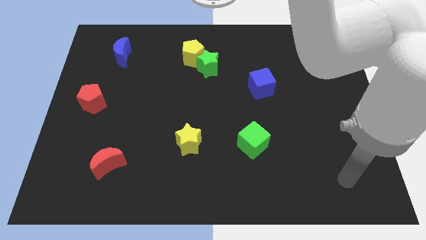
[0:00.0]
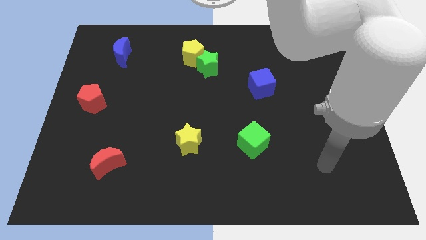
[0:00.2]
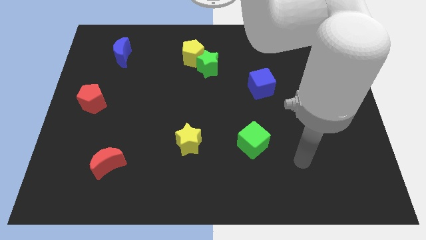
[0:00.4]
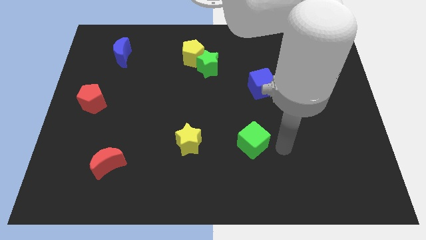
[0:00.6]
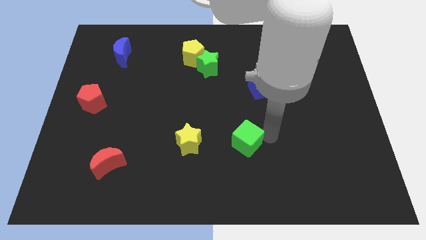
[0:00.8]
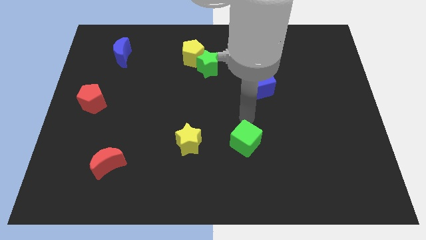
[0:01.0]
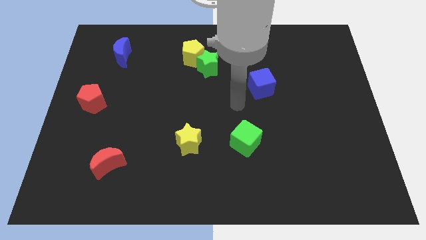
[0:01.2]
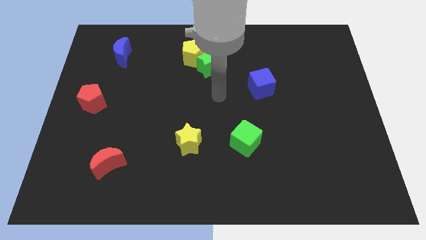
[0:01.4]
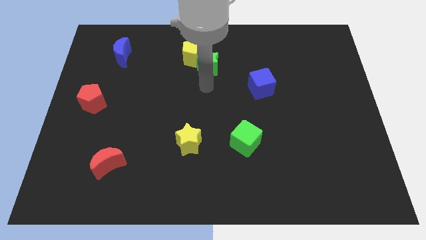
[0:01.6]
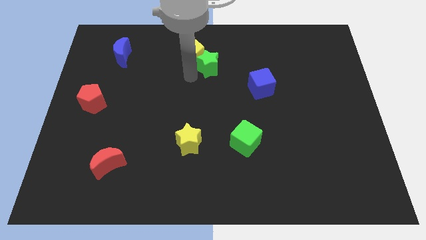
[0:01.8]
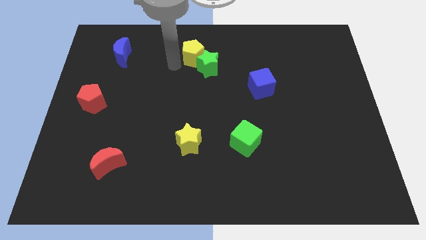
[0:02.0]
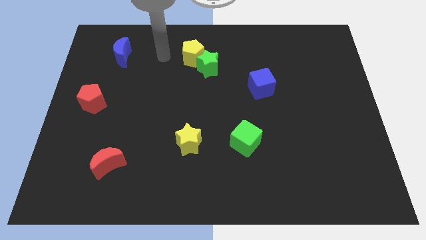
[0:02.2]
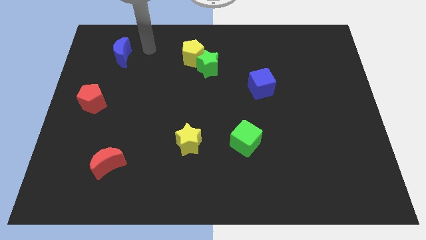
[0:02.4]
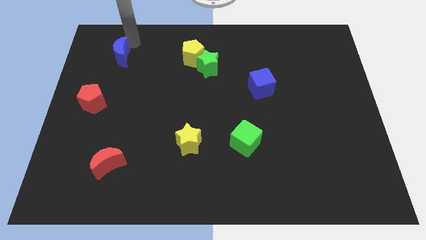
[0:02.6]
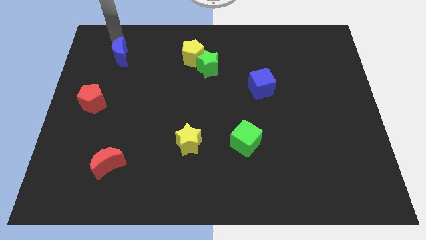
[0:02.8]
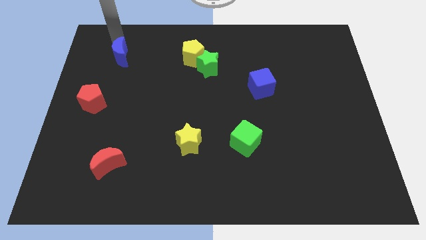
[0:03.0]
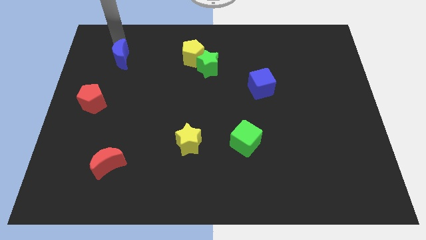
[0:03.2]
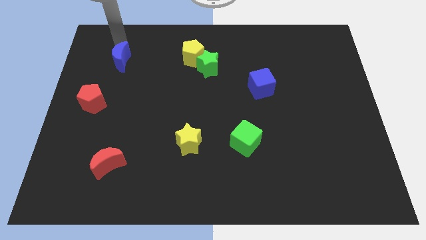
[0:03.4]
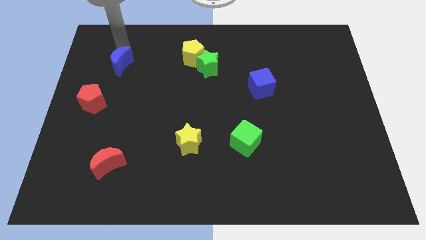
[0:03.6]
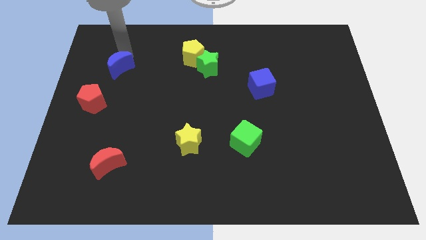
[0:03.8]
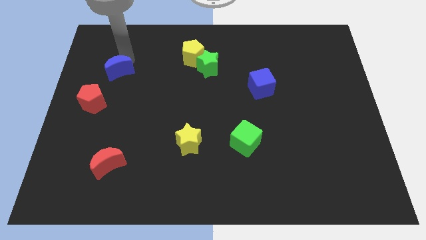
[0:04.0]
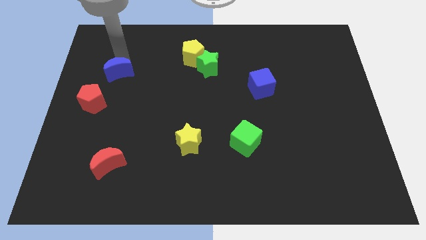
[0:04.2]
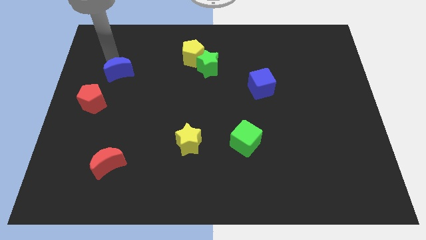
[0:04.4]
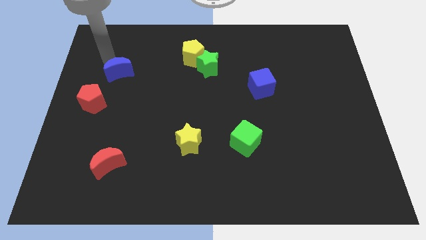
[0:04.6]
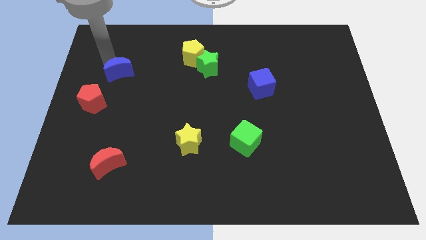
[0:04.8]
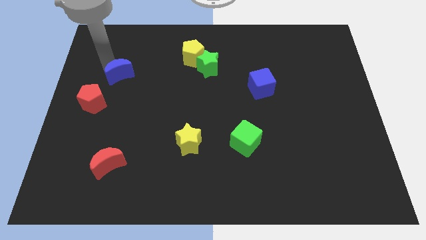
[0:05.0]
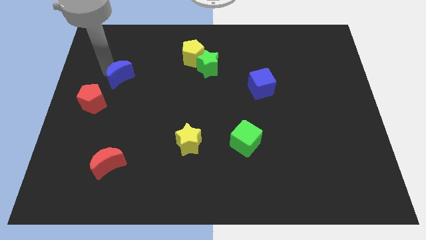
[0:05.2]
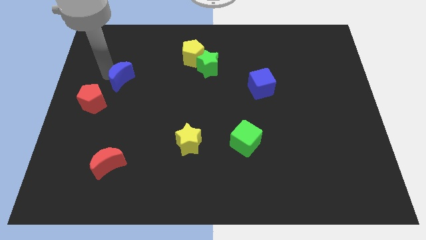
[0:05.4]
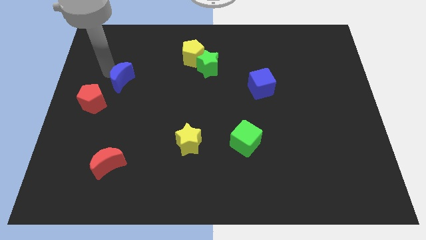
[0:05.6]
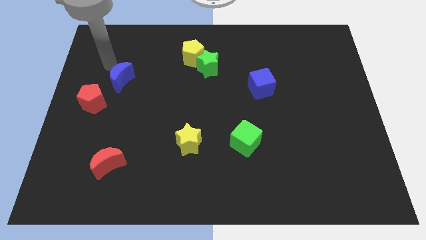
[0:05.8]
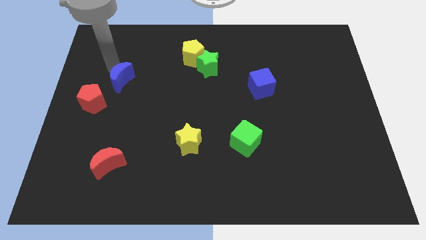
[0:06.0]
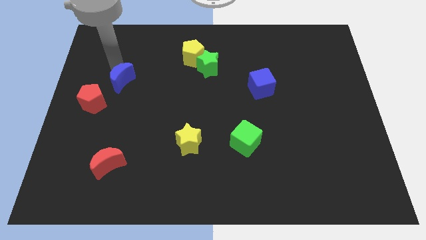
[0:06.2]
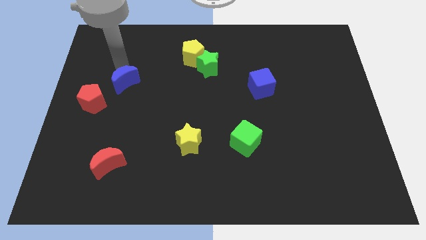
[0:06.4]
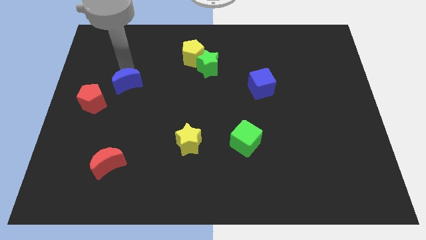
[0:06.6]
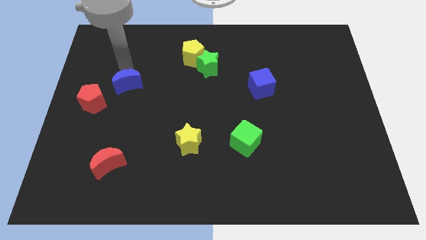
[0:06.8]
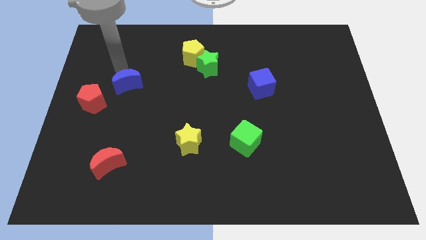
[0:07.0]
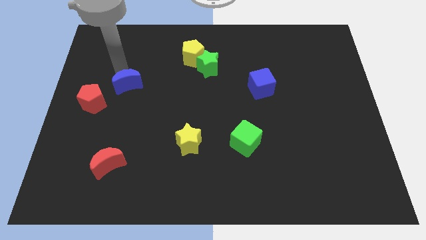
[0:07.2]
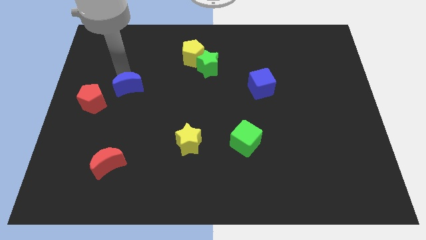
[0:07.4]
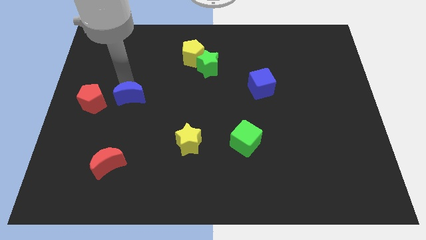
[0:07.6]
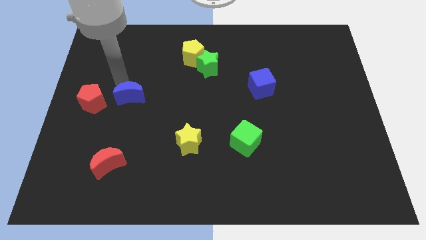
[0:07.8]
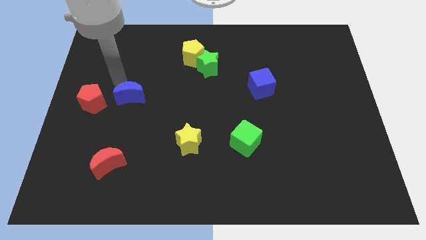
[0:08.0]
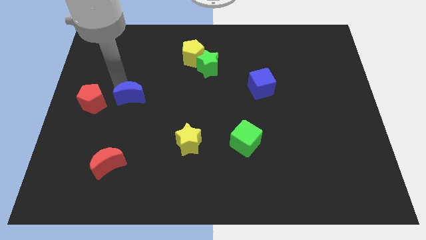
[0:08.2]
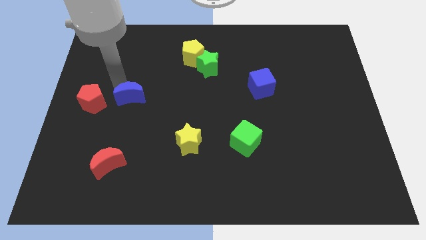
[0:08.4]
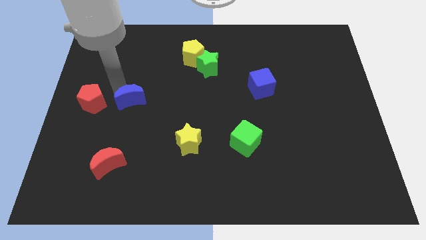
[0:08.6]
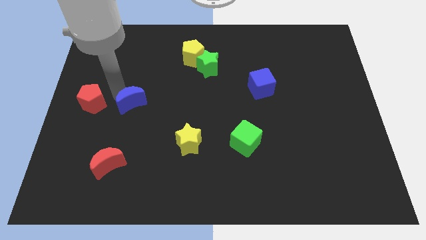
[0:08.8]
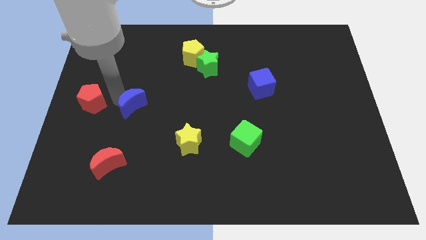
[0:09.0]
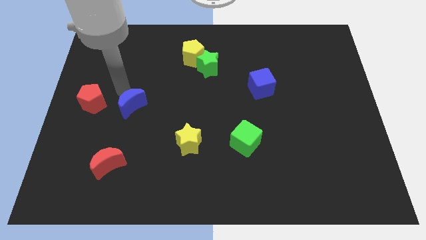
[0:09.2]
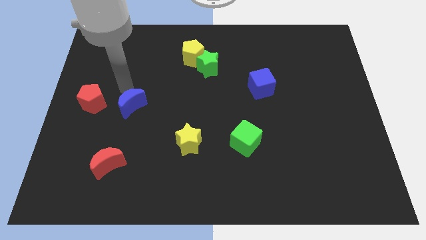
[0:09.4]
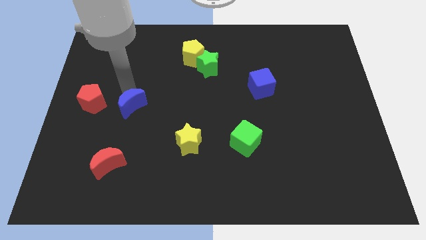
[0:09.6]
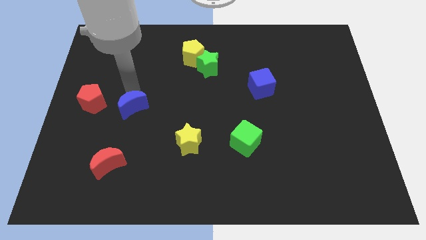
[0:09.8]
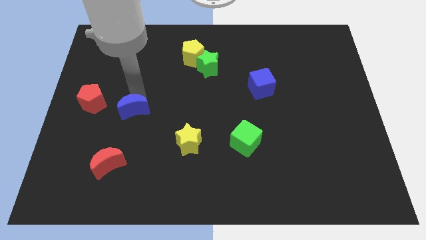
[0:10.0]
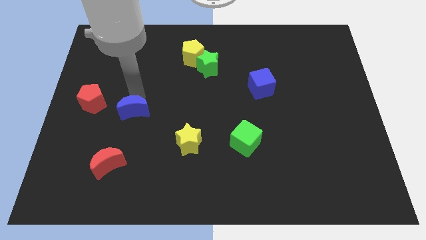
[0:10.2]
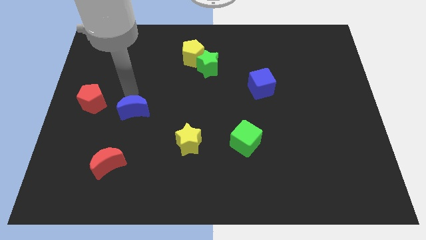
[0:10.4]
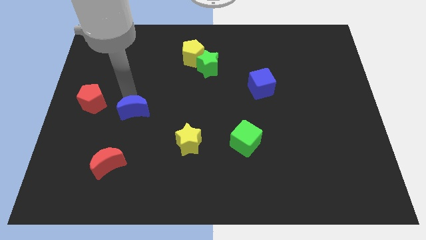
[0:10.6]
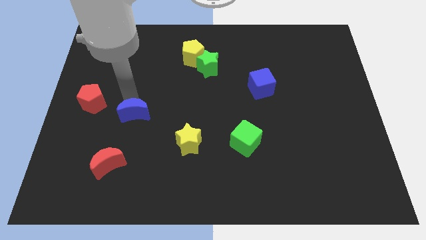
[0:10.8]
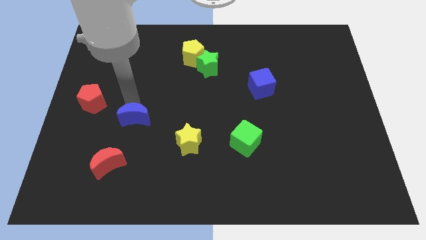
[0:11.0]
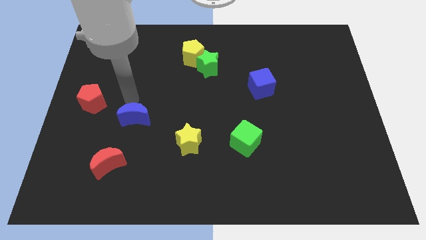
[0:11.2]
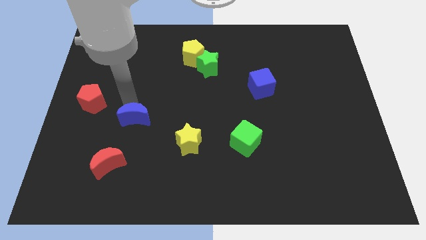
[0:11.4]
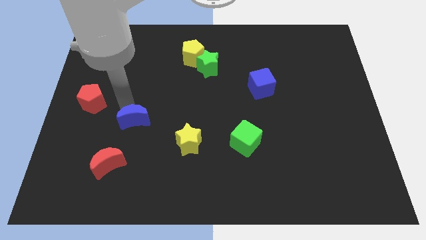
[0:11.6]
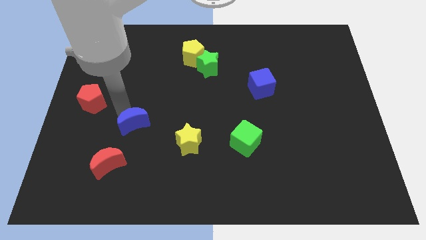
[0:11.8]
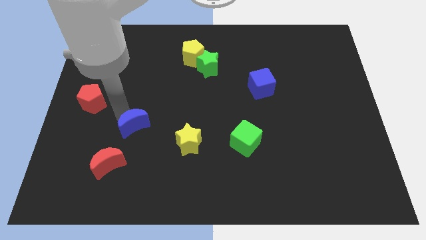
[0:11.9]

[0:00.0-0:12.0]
move the blue moon to the left side of the yellow star
